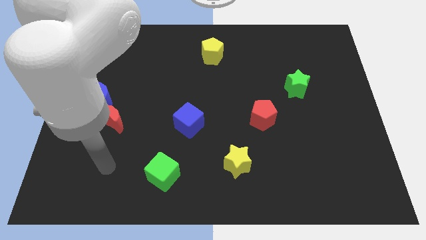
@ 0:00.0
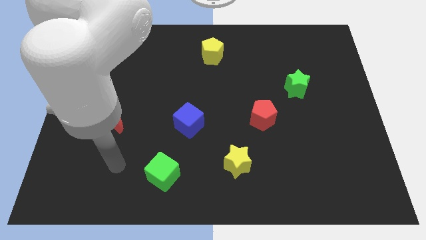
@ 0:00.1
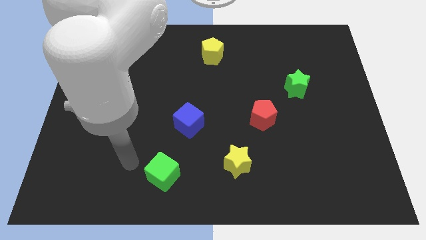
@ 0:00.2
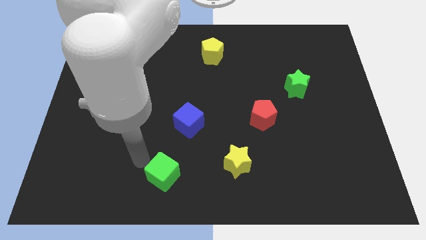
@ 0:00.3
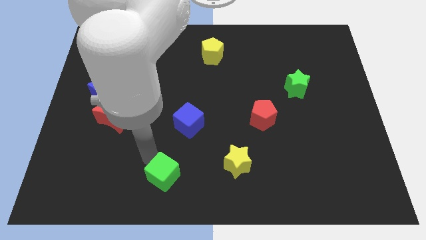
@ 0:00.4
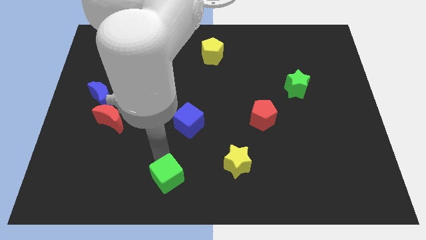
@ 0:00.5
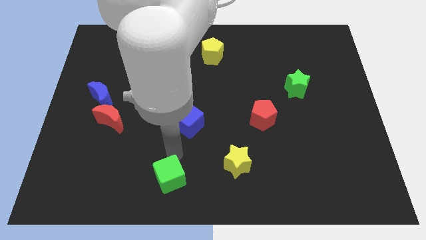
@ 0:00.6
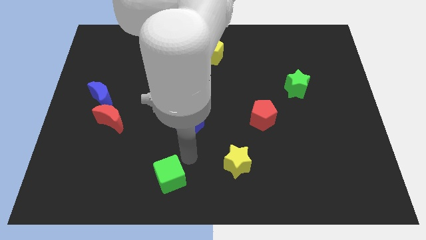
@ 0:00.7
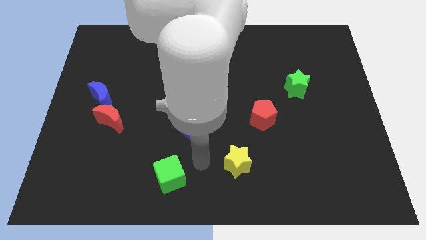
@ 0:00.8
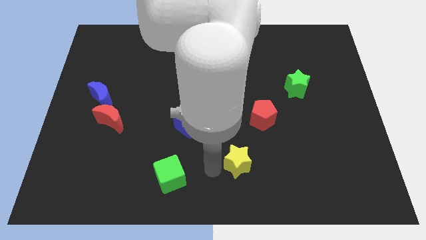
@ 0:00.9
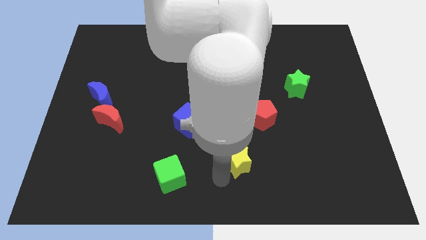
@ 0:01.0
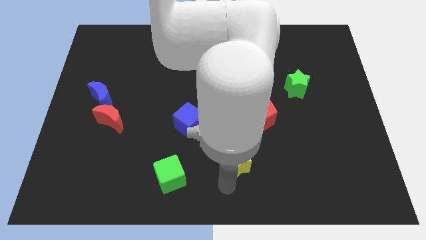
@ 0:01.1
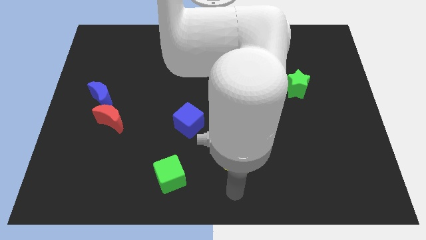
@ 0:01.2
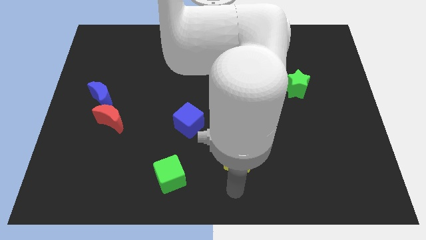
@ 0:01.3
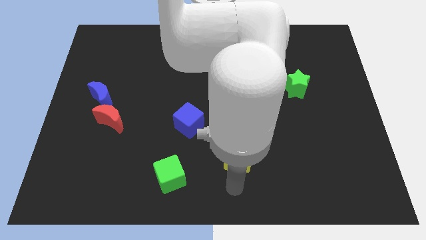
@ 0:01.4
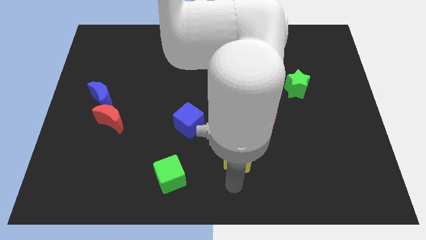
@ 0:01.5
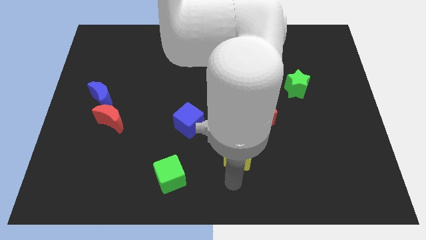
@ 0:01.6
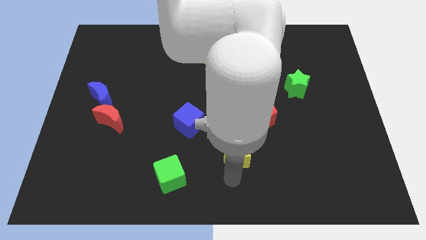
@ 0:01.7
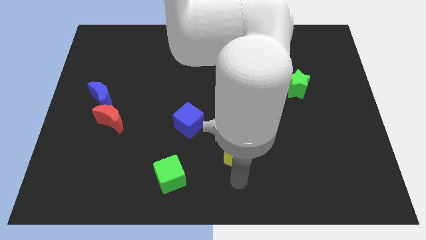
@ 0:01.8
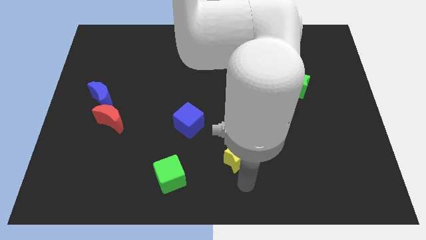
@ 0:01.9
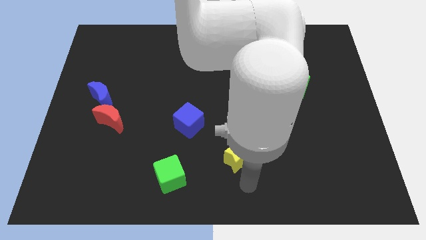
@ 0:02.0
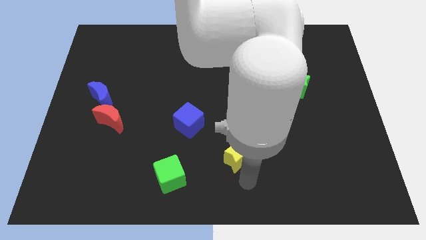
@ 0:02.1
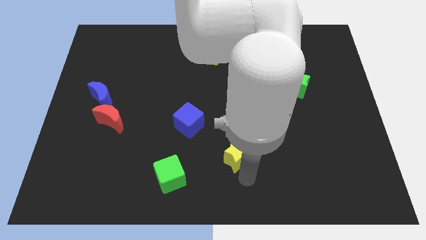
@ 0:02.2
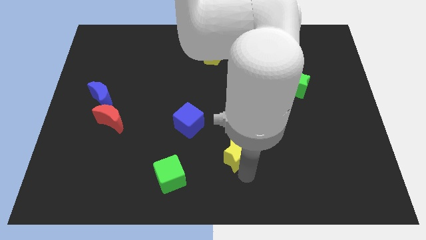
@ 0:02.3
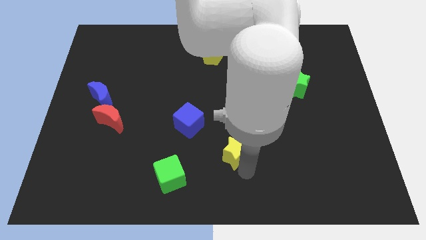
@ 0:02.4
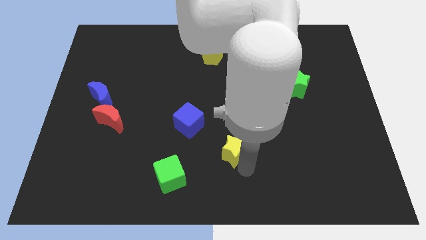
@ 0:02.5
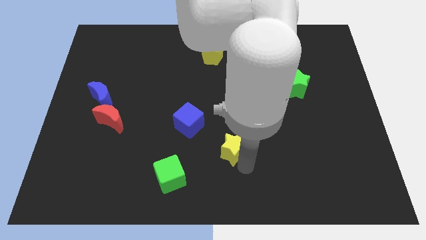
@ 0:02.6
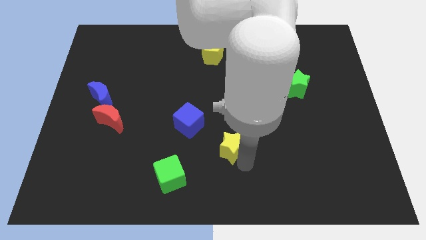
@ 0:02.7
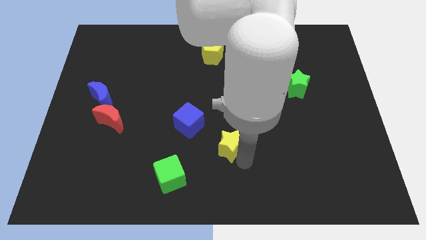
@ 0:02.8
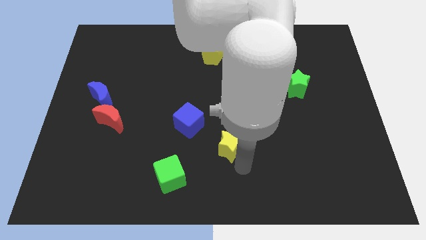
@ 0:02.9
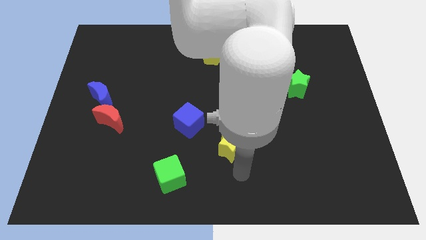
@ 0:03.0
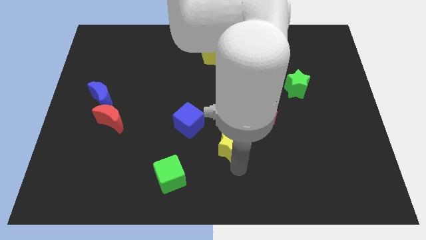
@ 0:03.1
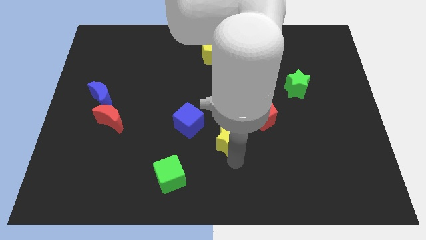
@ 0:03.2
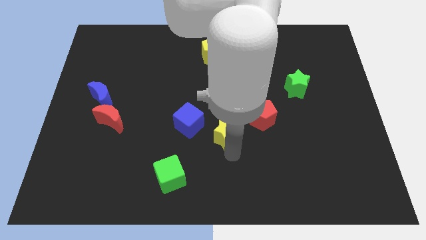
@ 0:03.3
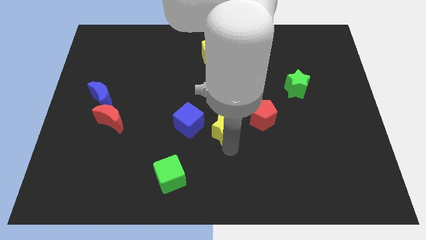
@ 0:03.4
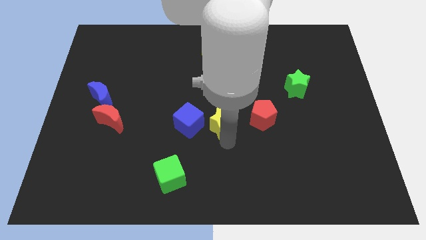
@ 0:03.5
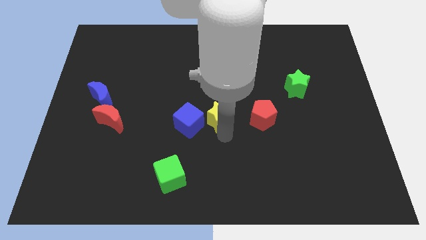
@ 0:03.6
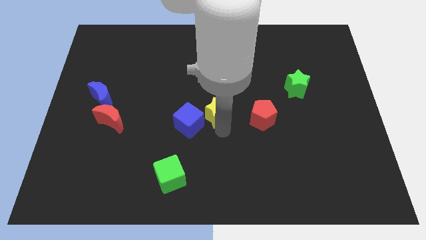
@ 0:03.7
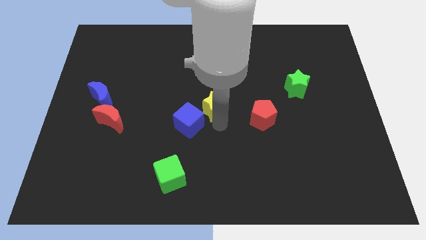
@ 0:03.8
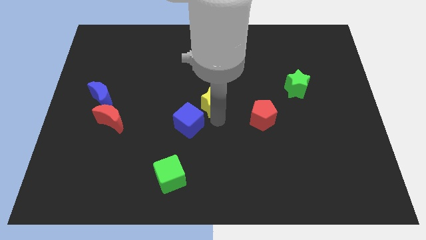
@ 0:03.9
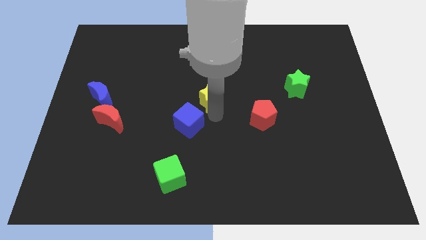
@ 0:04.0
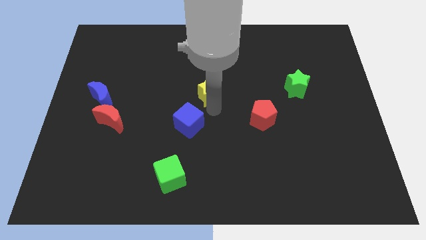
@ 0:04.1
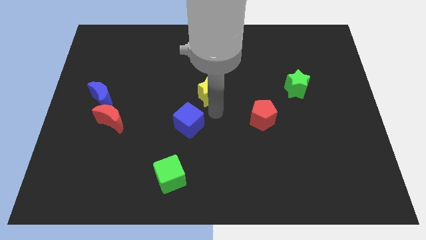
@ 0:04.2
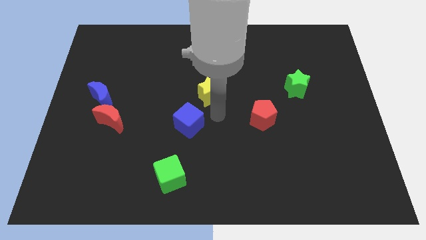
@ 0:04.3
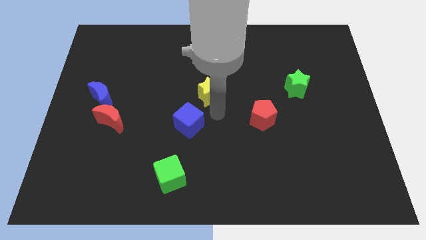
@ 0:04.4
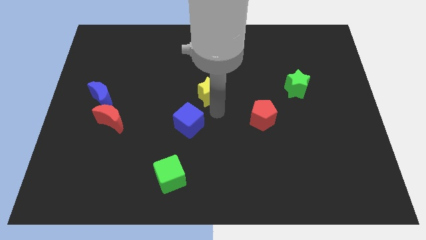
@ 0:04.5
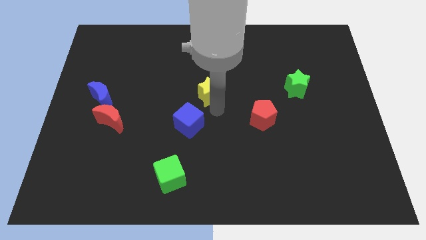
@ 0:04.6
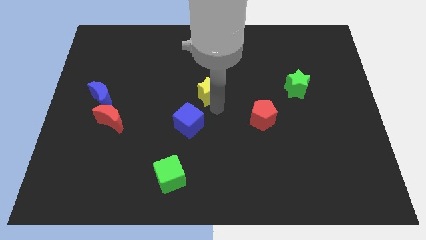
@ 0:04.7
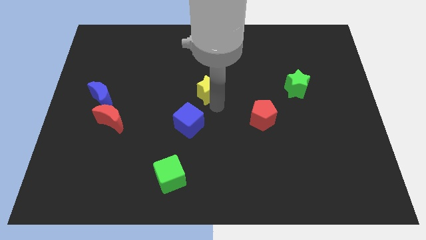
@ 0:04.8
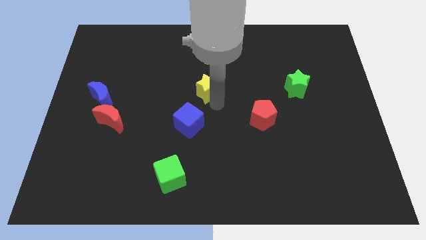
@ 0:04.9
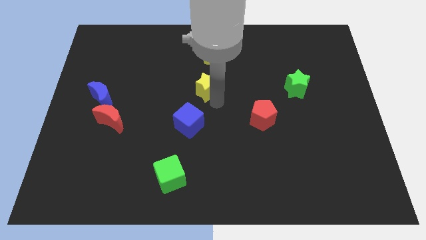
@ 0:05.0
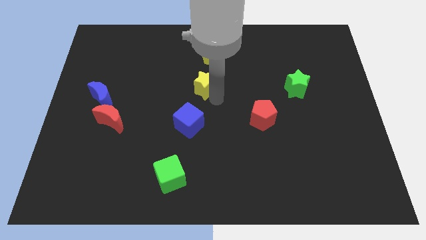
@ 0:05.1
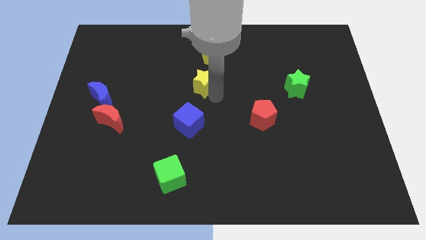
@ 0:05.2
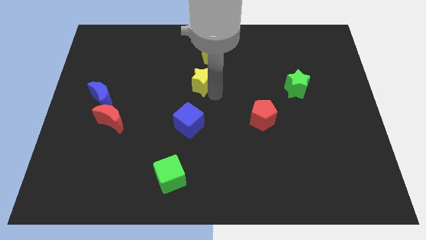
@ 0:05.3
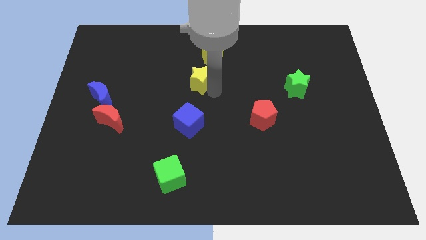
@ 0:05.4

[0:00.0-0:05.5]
push the yellow star diagonally down and to the left of the yellow pentagon

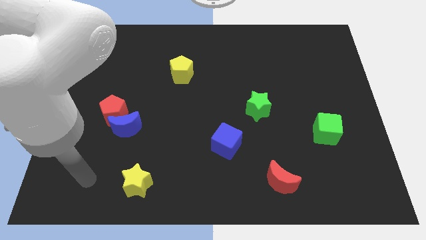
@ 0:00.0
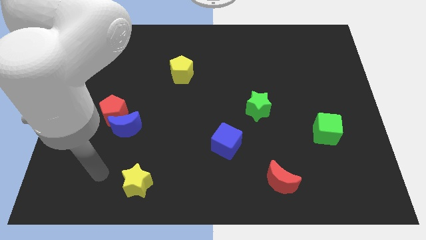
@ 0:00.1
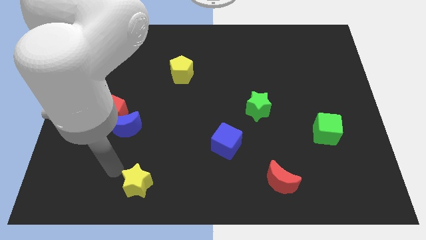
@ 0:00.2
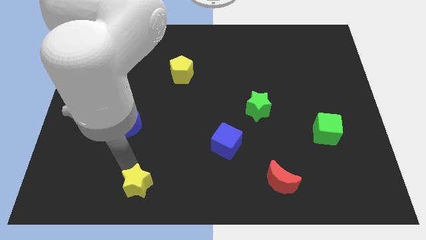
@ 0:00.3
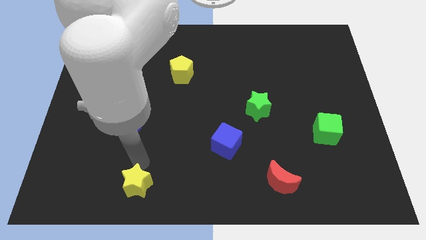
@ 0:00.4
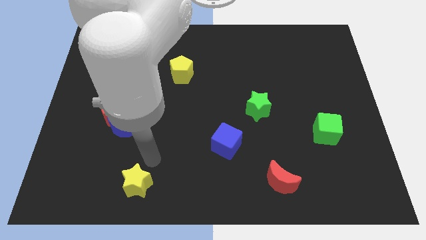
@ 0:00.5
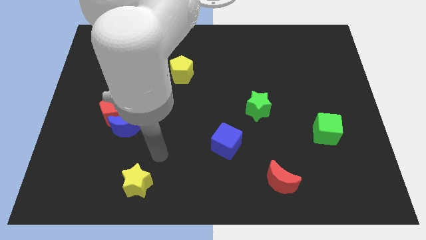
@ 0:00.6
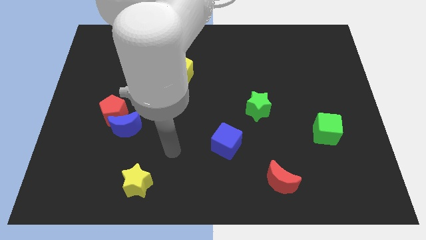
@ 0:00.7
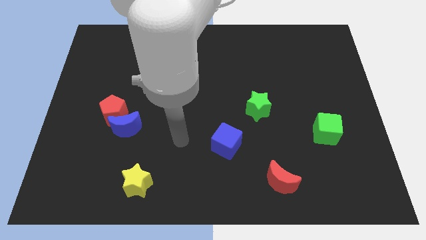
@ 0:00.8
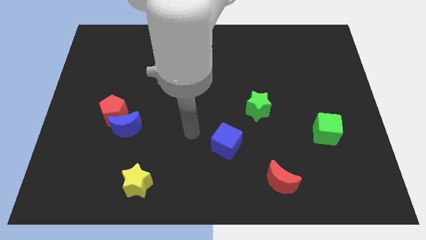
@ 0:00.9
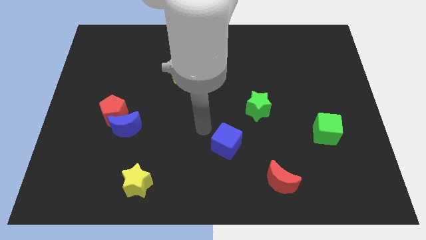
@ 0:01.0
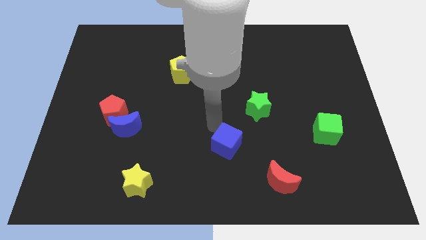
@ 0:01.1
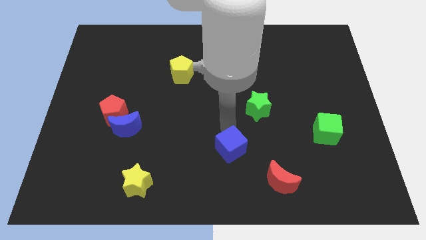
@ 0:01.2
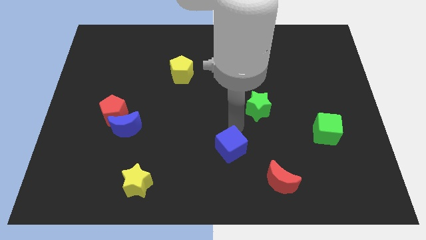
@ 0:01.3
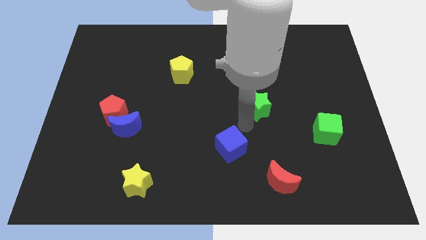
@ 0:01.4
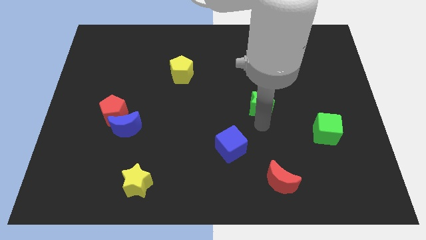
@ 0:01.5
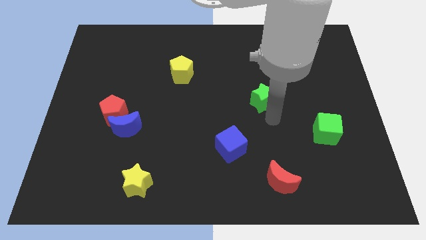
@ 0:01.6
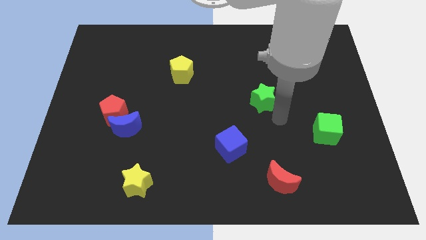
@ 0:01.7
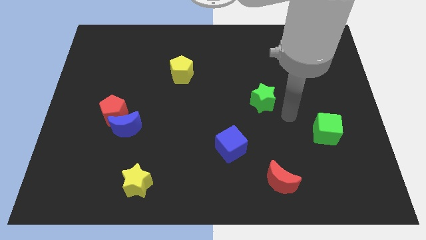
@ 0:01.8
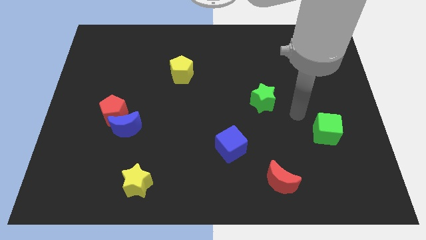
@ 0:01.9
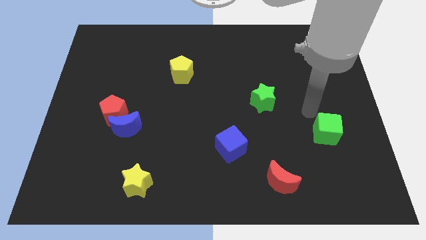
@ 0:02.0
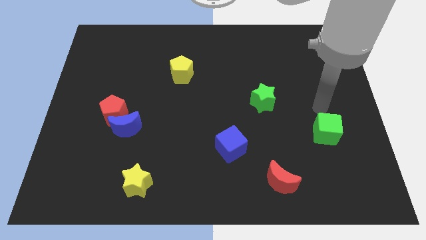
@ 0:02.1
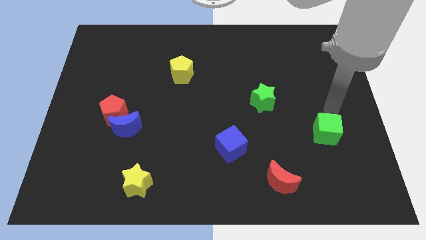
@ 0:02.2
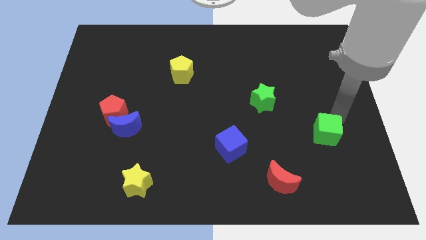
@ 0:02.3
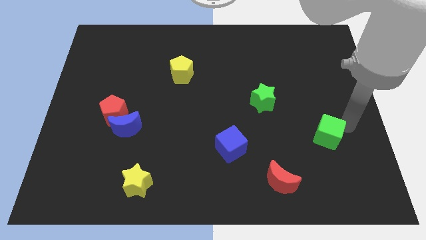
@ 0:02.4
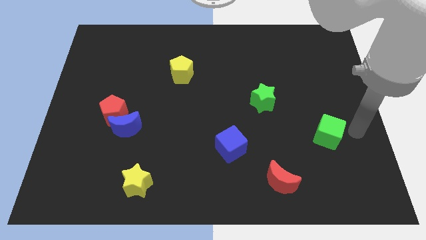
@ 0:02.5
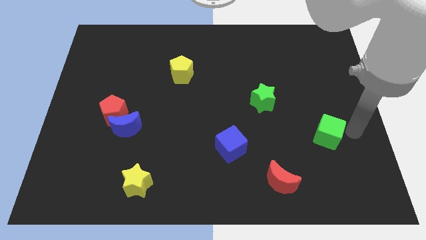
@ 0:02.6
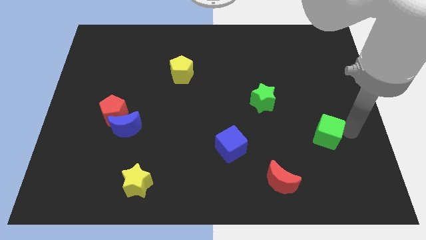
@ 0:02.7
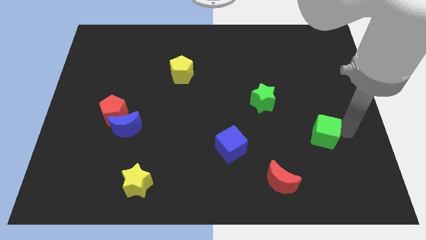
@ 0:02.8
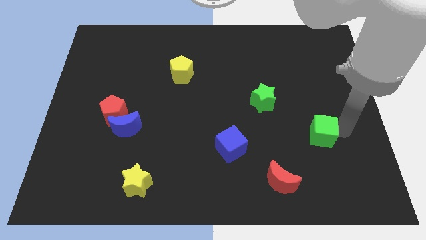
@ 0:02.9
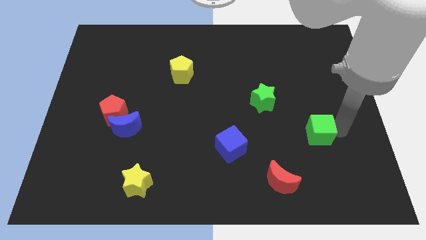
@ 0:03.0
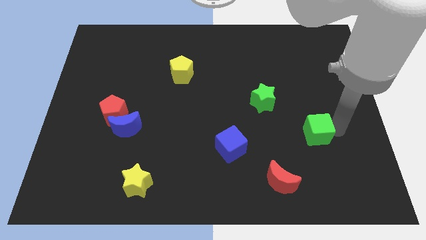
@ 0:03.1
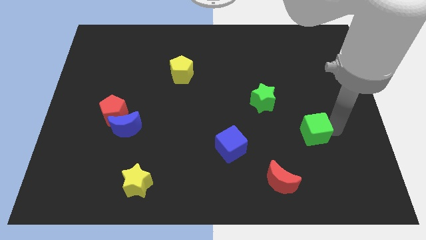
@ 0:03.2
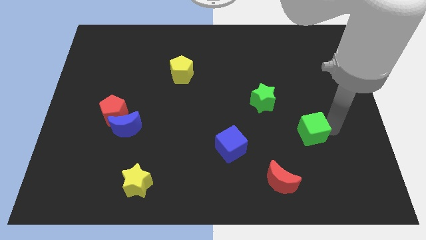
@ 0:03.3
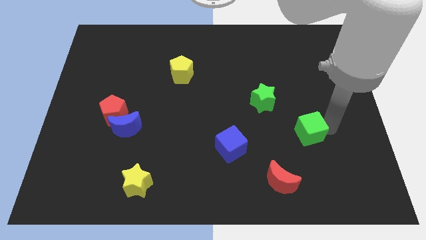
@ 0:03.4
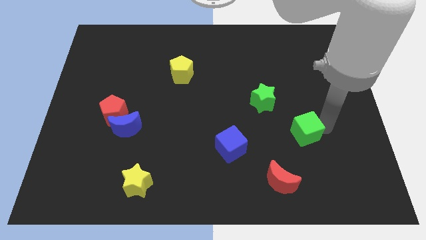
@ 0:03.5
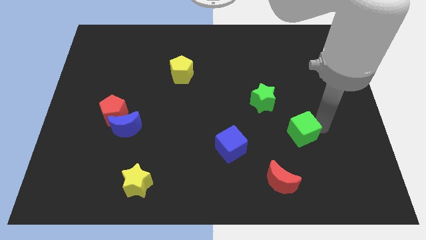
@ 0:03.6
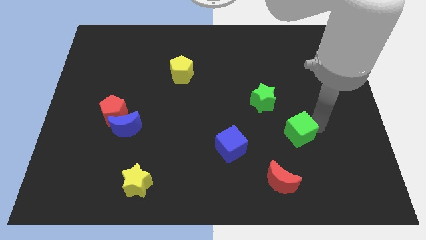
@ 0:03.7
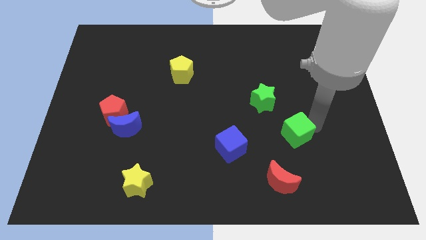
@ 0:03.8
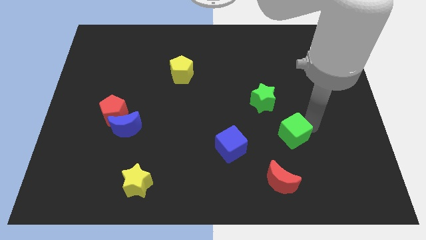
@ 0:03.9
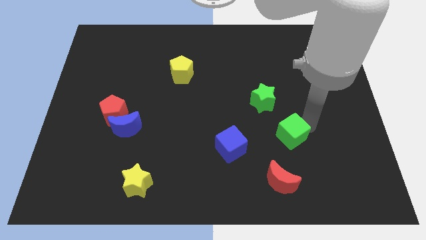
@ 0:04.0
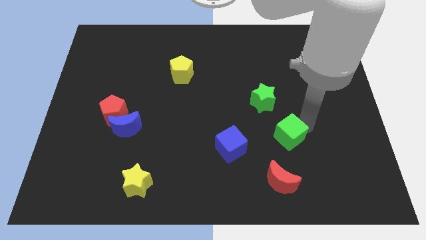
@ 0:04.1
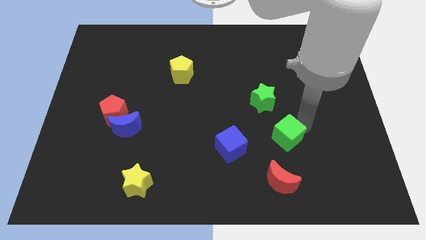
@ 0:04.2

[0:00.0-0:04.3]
slide the green cube to the bottom of the green star
